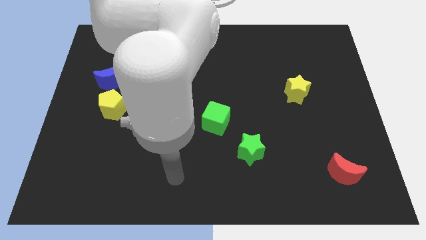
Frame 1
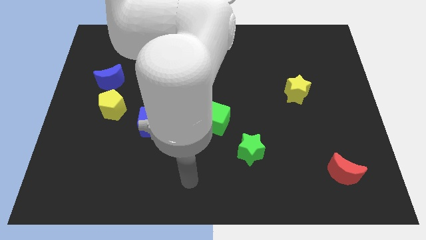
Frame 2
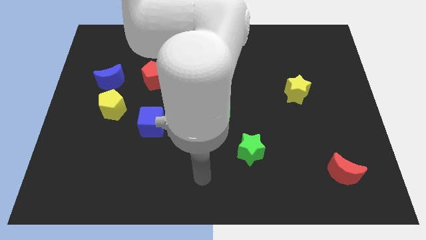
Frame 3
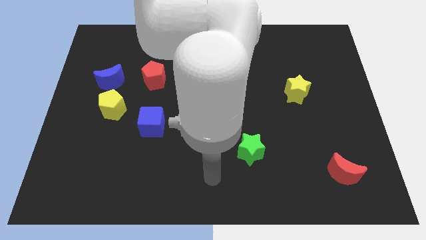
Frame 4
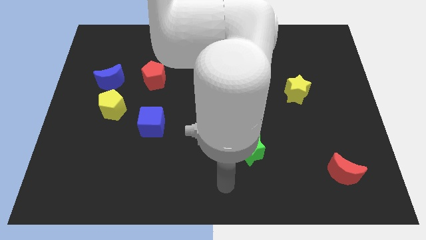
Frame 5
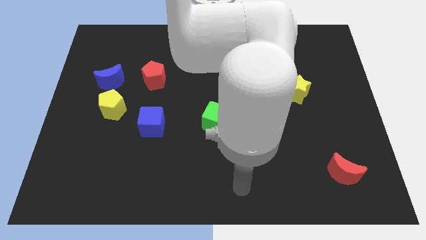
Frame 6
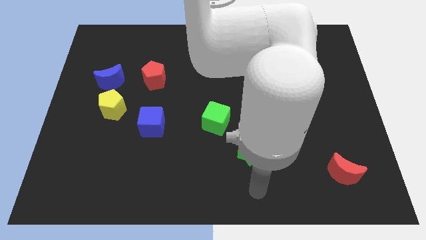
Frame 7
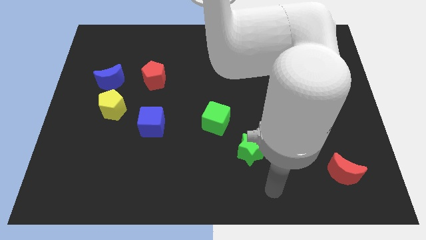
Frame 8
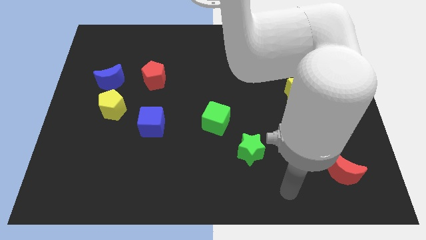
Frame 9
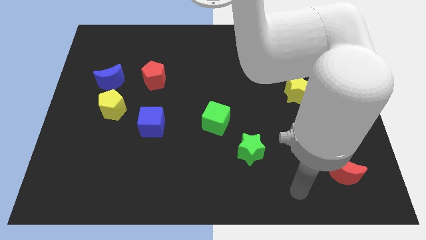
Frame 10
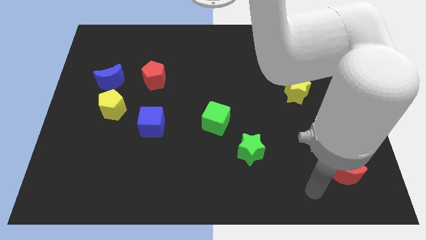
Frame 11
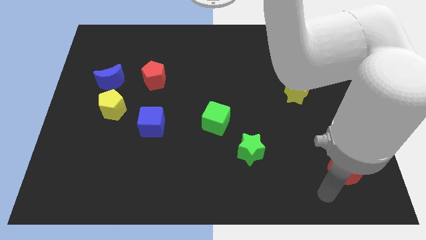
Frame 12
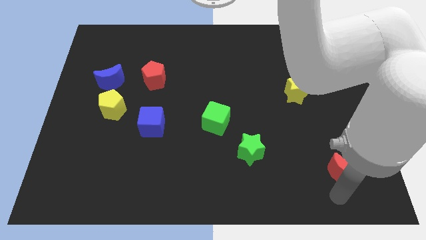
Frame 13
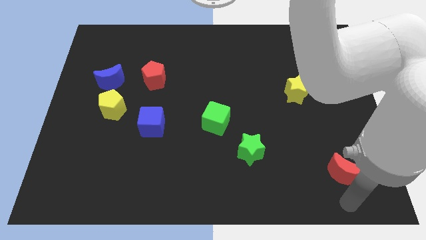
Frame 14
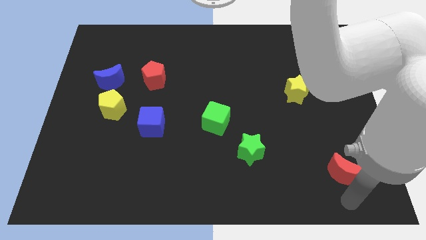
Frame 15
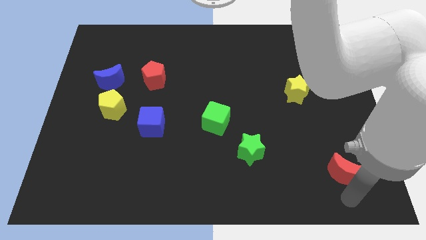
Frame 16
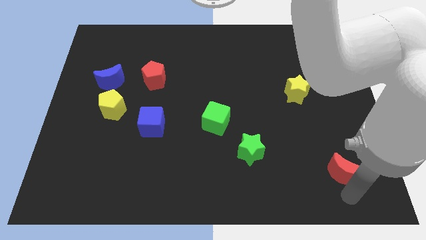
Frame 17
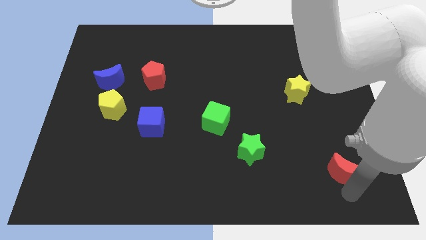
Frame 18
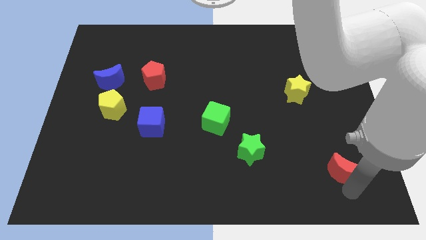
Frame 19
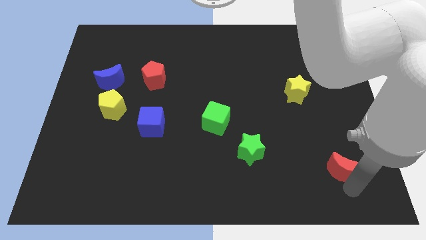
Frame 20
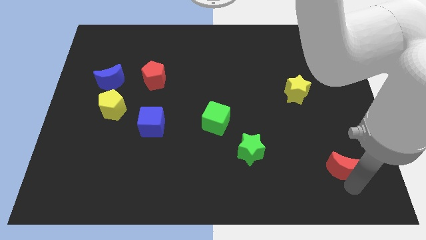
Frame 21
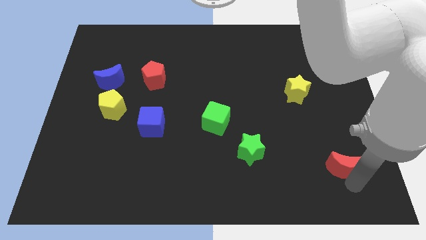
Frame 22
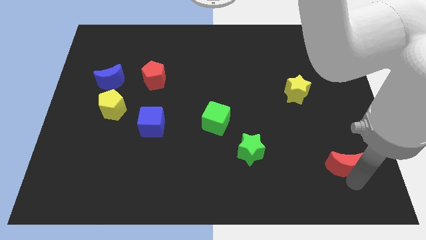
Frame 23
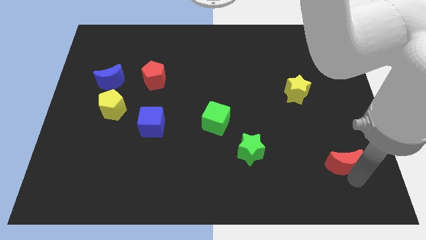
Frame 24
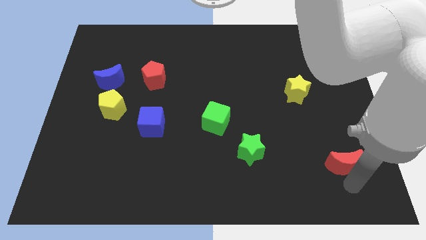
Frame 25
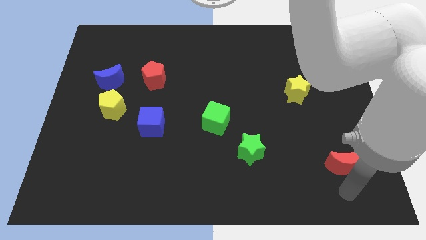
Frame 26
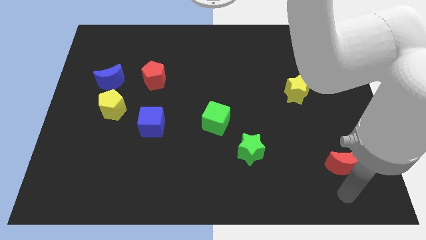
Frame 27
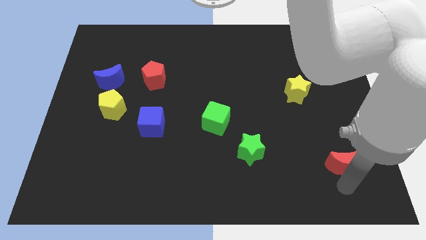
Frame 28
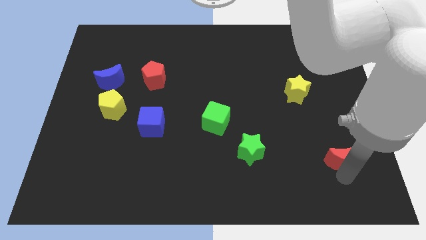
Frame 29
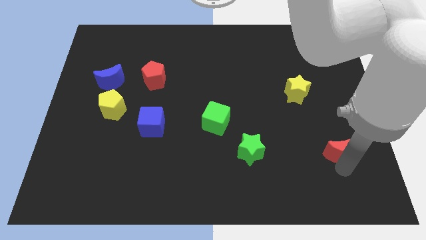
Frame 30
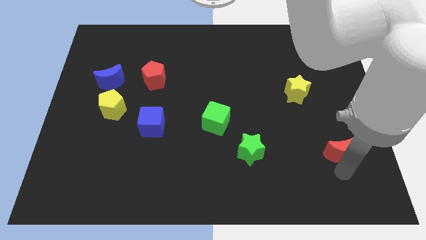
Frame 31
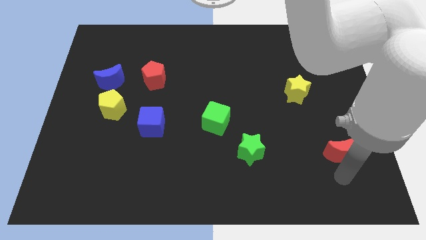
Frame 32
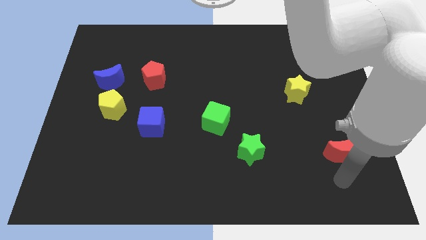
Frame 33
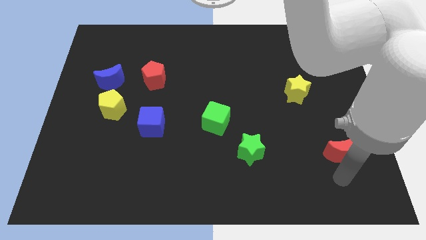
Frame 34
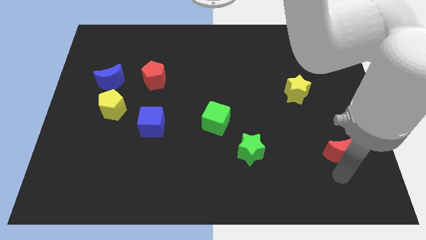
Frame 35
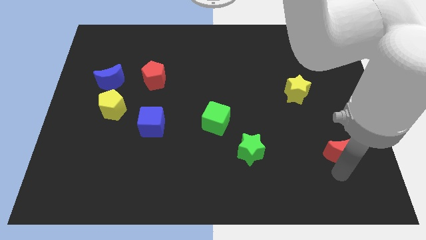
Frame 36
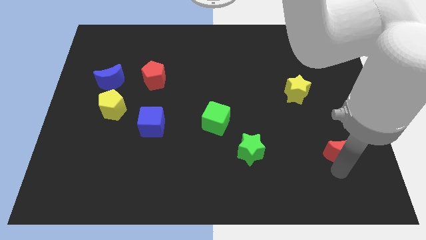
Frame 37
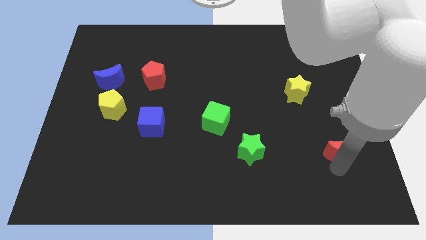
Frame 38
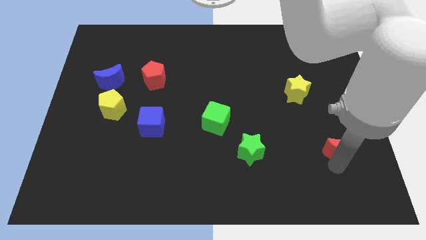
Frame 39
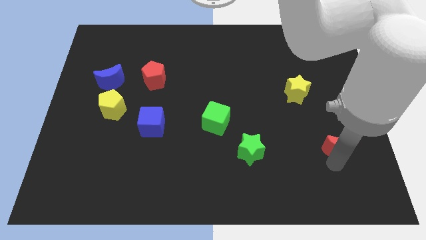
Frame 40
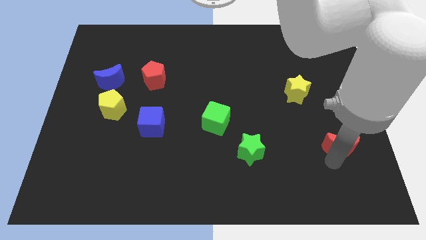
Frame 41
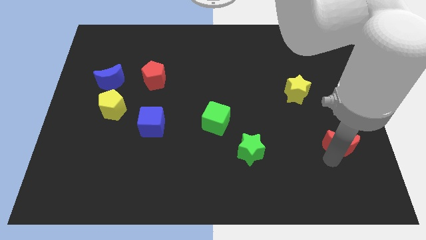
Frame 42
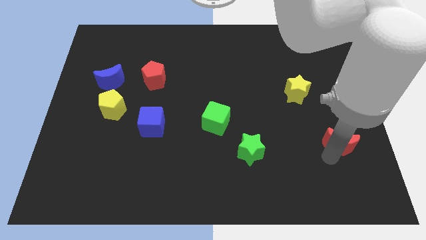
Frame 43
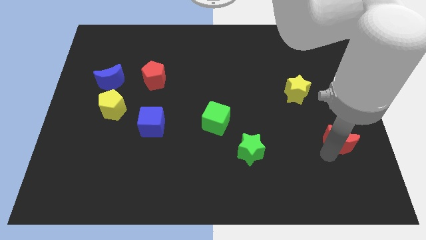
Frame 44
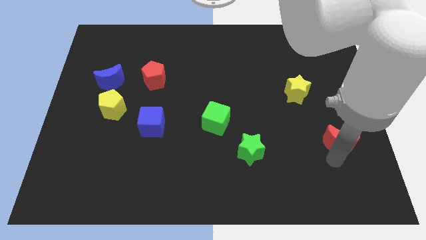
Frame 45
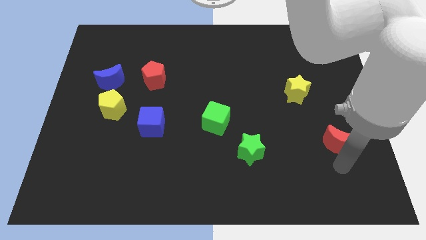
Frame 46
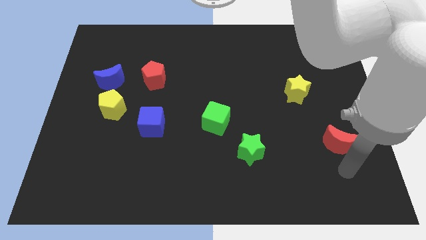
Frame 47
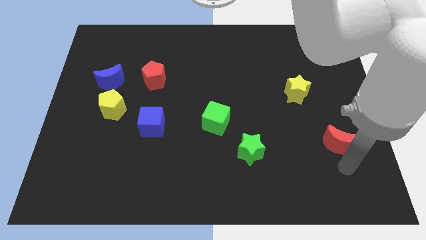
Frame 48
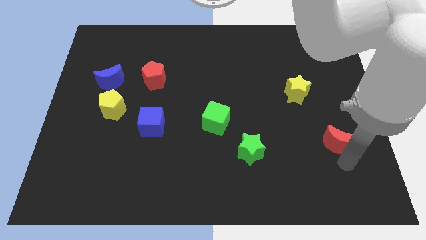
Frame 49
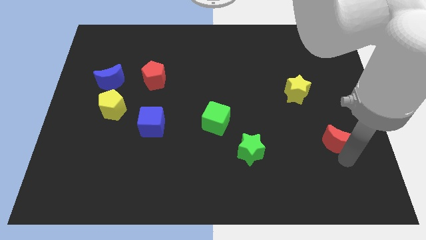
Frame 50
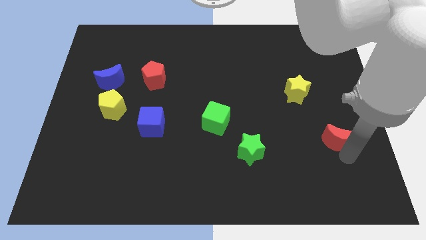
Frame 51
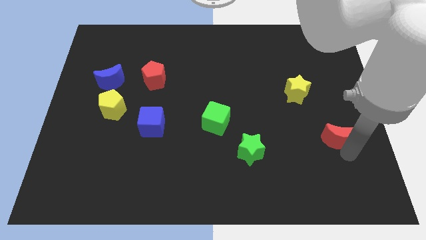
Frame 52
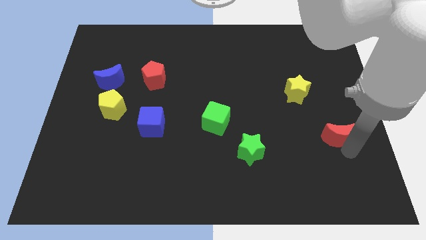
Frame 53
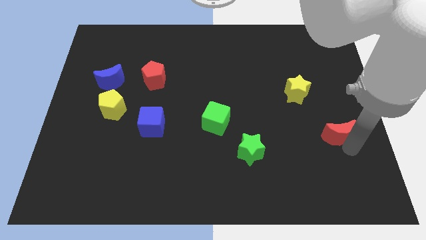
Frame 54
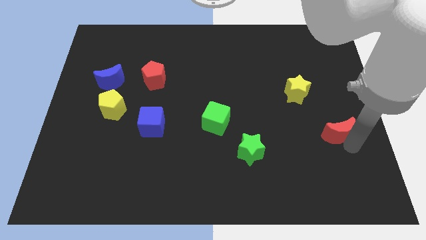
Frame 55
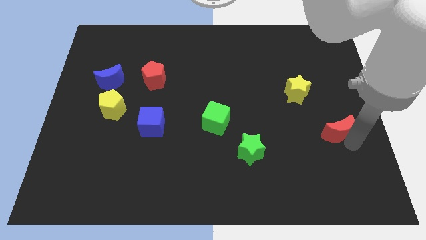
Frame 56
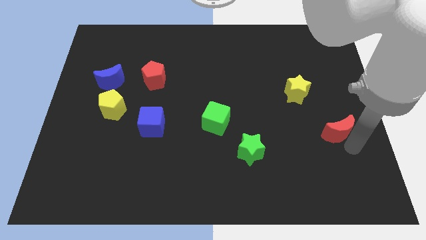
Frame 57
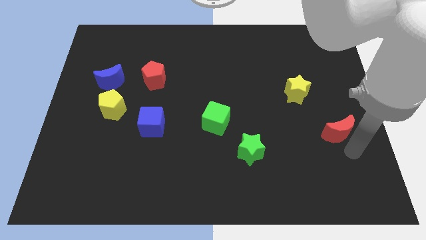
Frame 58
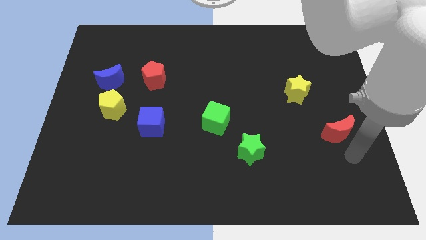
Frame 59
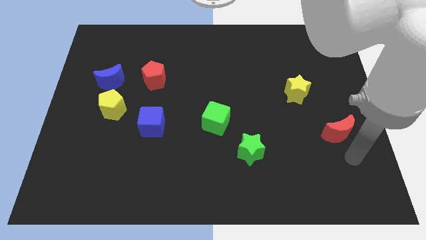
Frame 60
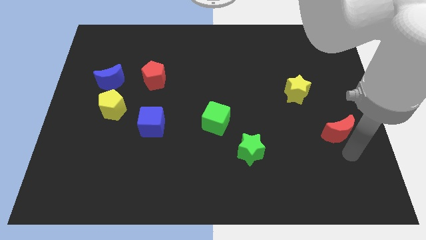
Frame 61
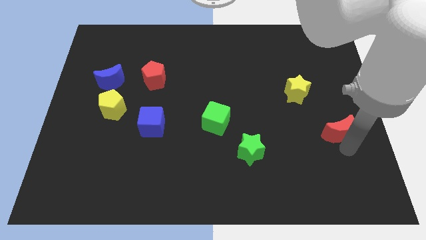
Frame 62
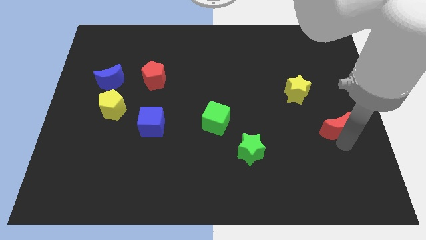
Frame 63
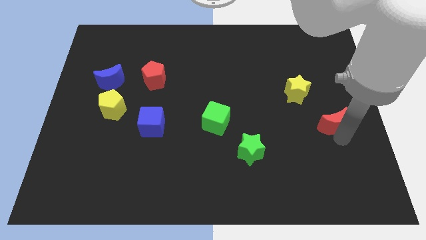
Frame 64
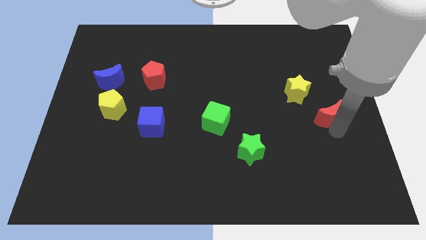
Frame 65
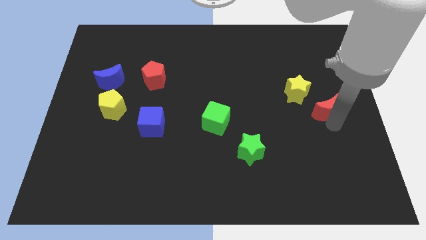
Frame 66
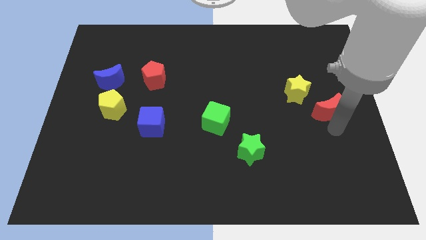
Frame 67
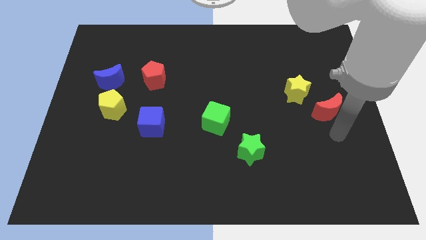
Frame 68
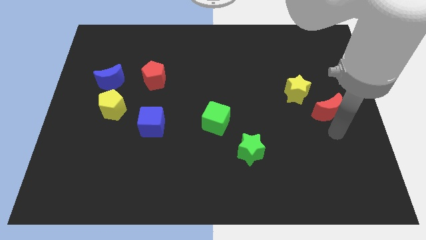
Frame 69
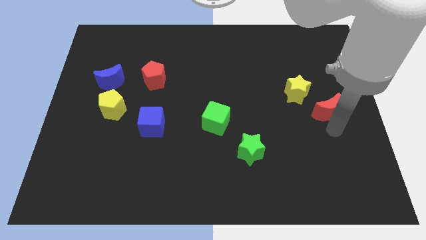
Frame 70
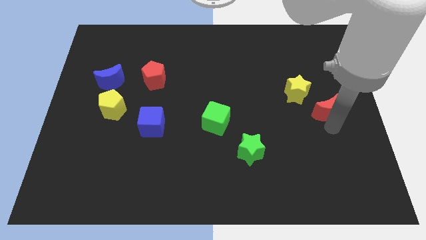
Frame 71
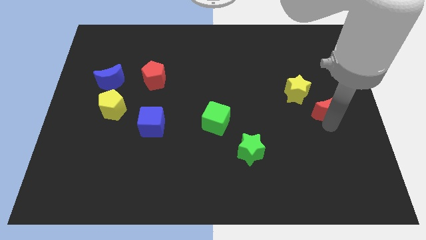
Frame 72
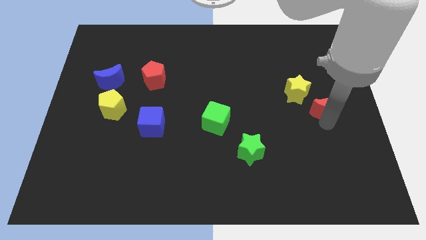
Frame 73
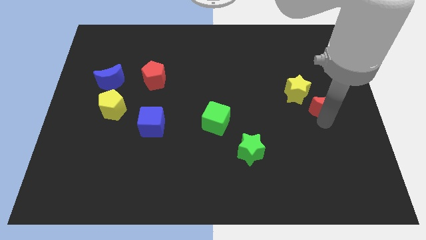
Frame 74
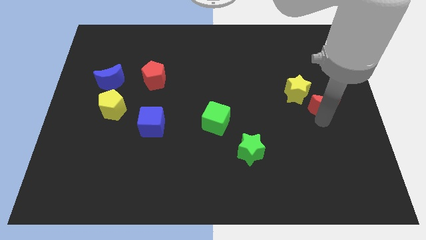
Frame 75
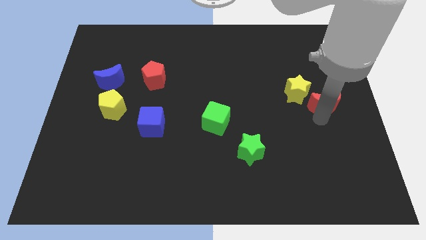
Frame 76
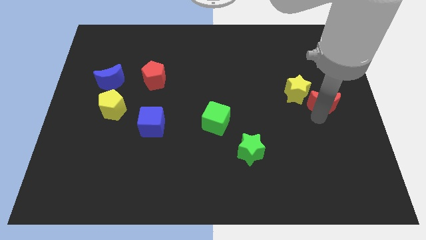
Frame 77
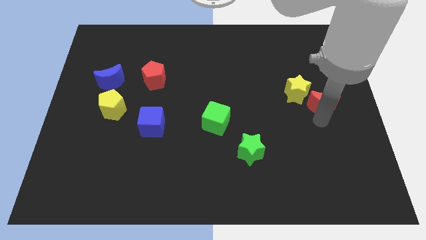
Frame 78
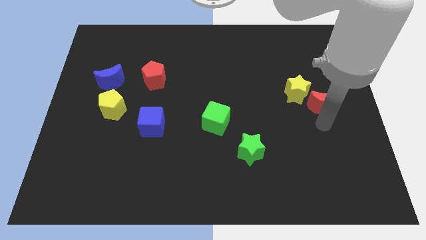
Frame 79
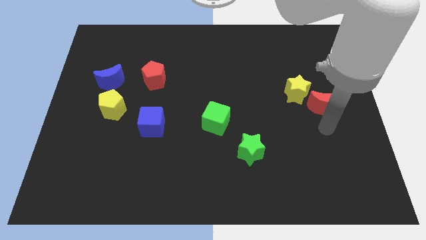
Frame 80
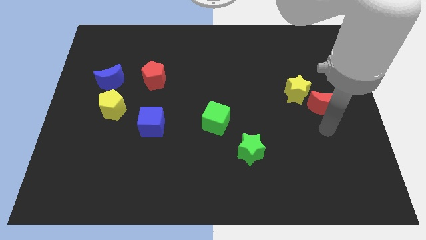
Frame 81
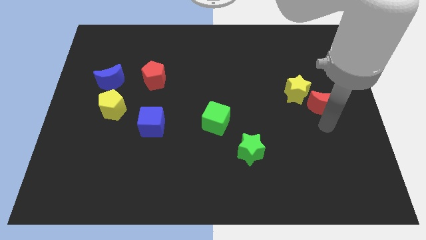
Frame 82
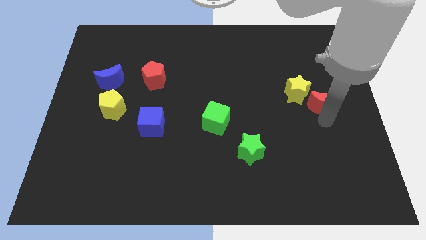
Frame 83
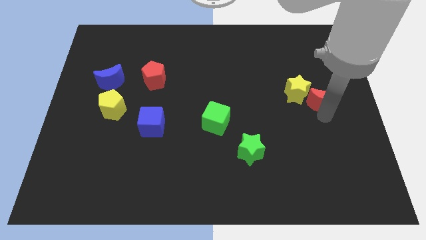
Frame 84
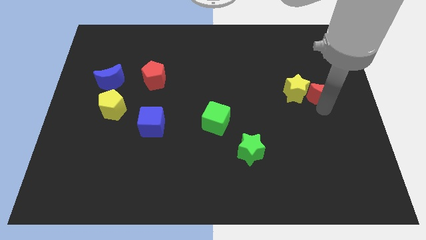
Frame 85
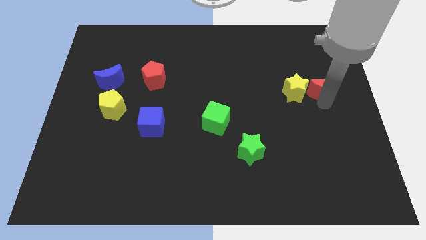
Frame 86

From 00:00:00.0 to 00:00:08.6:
push the red moon to the top right of the yellow star
